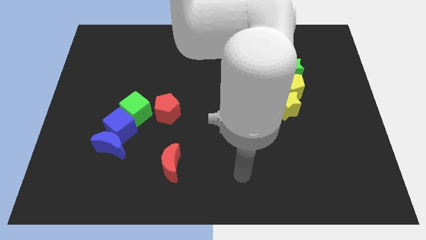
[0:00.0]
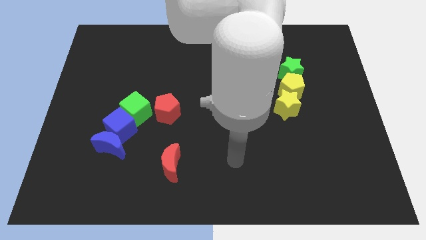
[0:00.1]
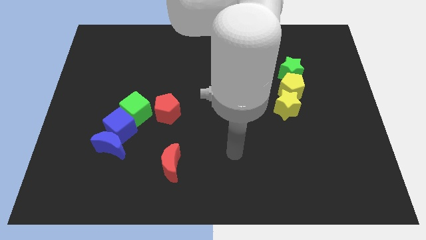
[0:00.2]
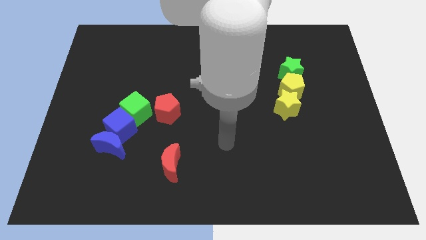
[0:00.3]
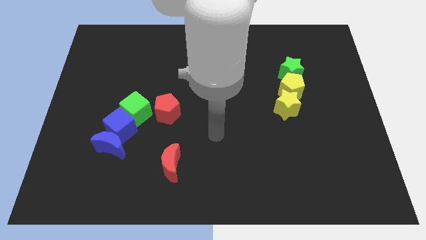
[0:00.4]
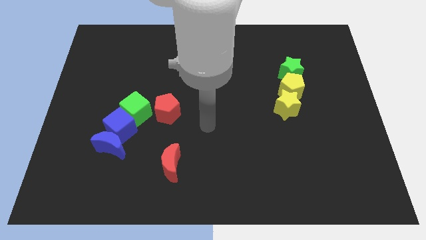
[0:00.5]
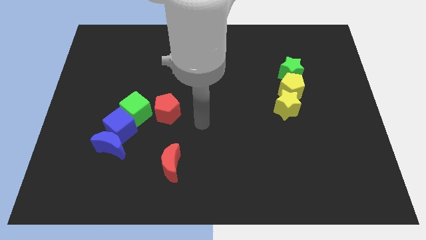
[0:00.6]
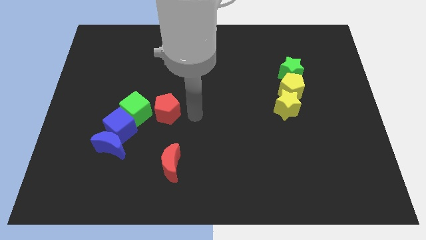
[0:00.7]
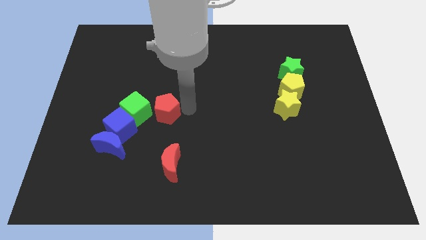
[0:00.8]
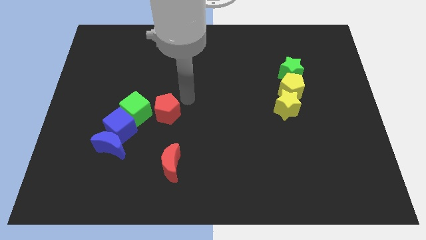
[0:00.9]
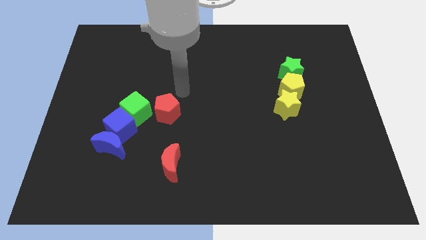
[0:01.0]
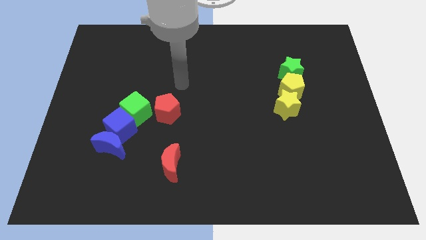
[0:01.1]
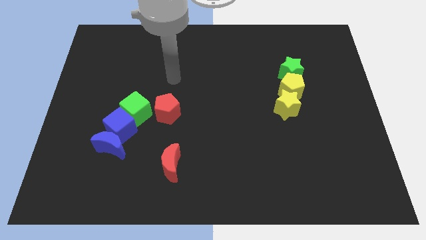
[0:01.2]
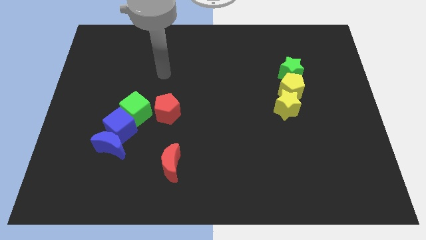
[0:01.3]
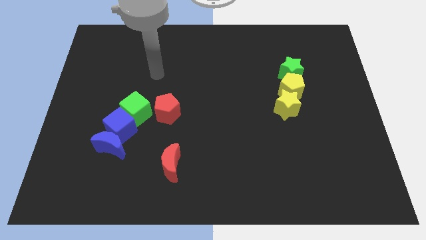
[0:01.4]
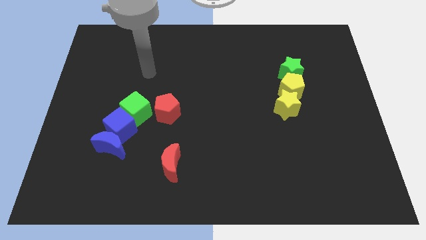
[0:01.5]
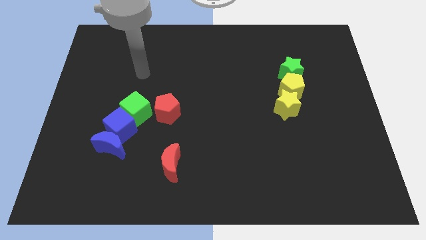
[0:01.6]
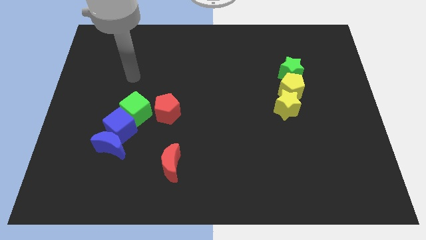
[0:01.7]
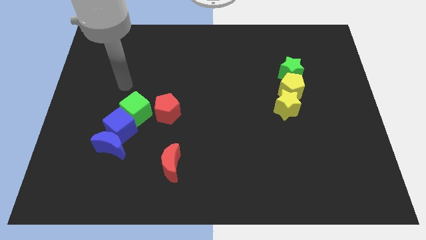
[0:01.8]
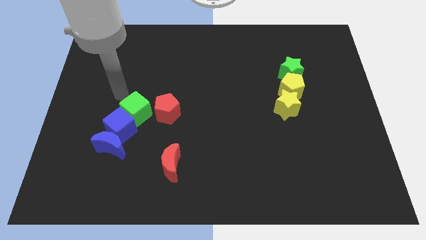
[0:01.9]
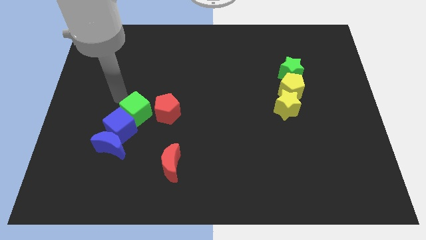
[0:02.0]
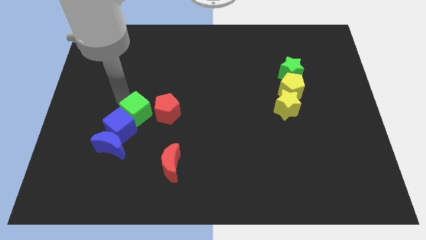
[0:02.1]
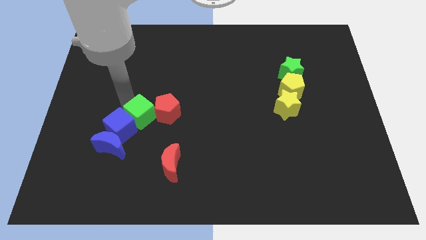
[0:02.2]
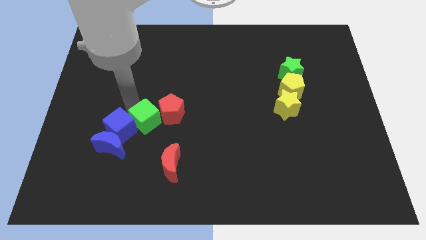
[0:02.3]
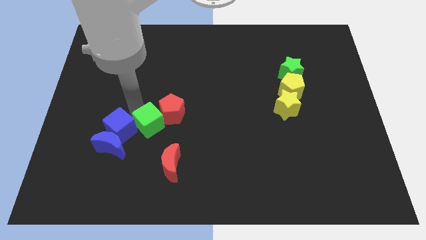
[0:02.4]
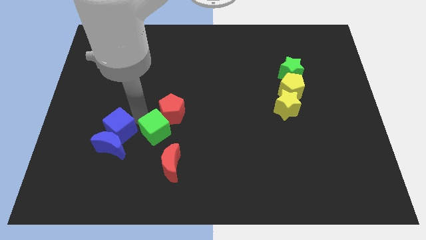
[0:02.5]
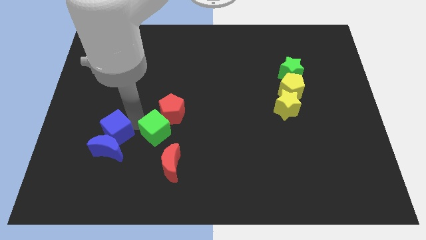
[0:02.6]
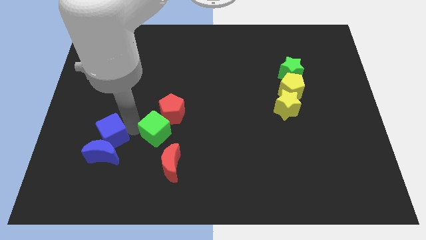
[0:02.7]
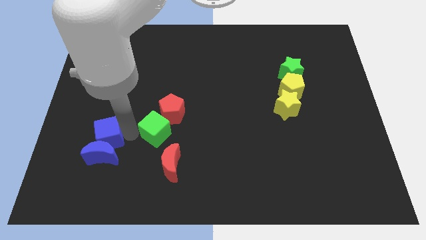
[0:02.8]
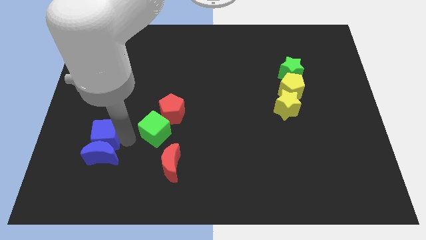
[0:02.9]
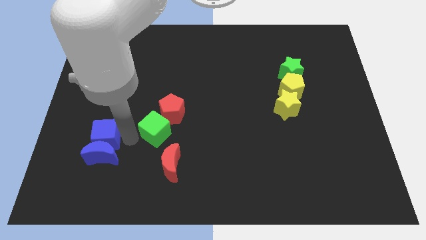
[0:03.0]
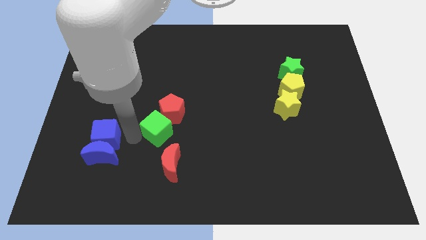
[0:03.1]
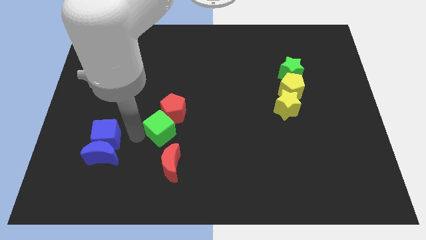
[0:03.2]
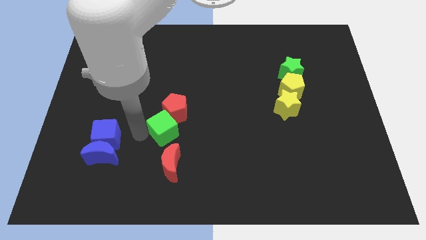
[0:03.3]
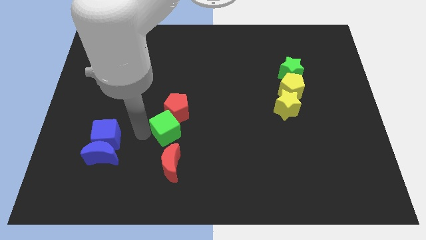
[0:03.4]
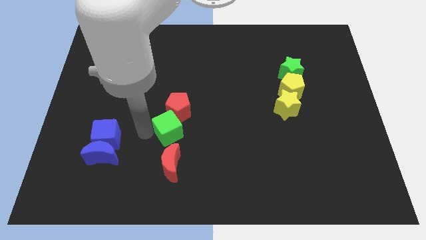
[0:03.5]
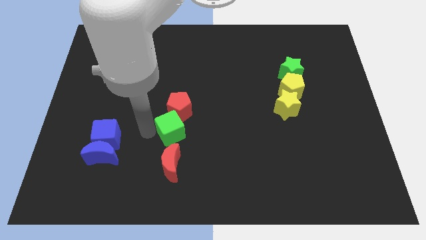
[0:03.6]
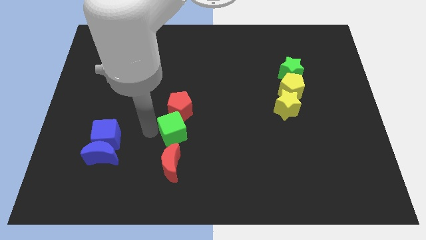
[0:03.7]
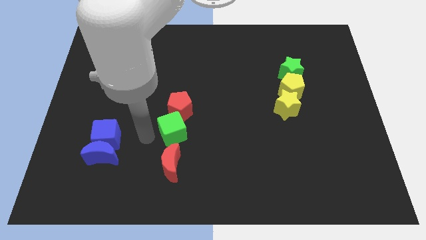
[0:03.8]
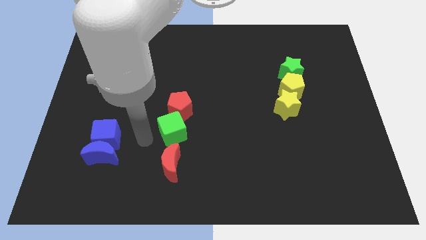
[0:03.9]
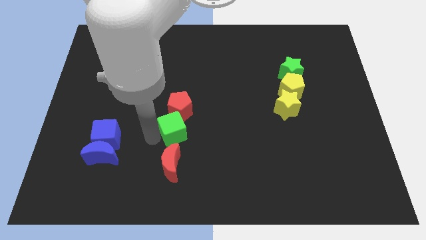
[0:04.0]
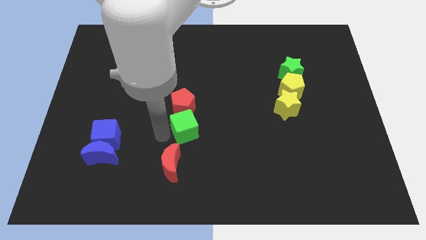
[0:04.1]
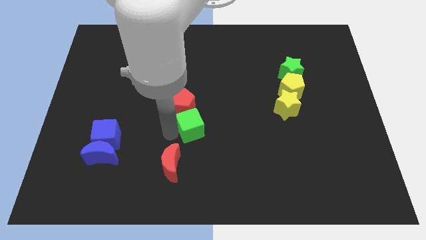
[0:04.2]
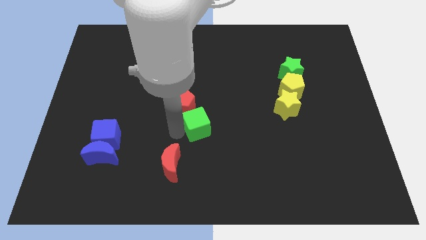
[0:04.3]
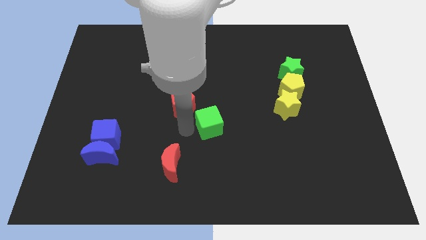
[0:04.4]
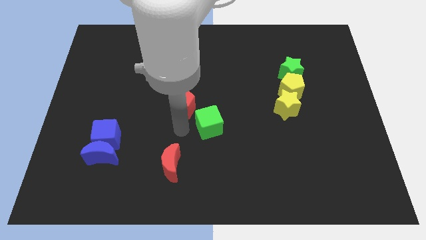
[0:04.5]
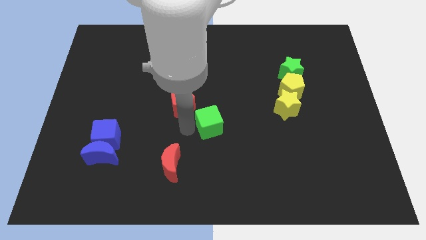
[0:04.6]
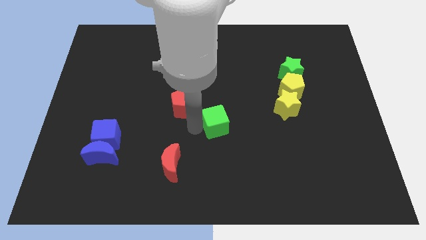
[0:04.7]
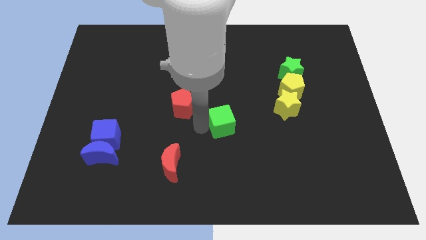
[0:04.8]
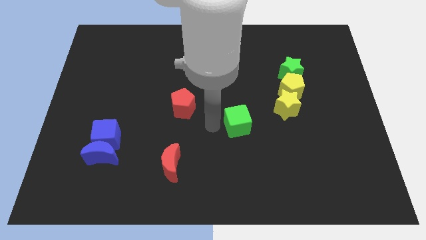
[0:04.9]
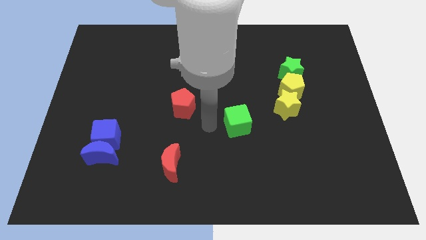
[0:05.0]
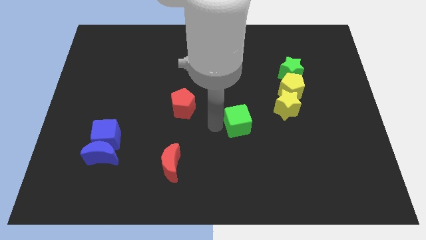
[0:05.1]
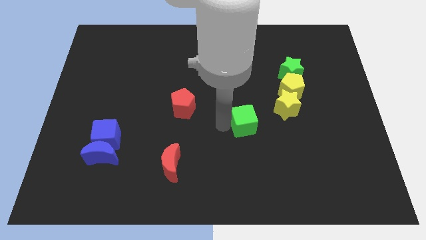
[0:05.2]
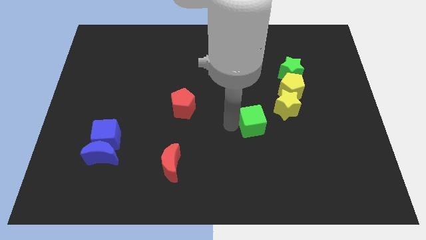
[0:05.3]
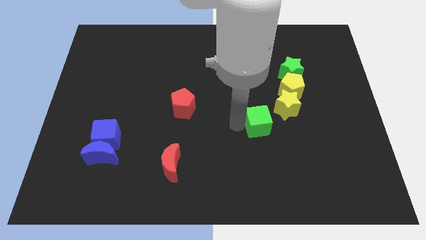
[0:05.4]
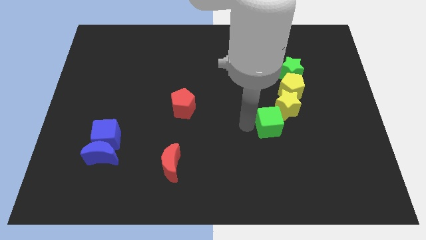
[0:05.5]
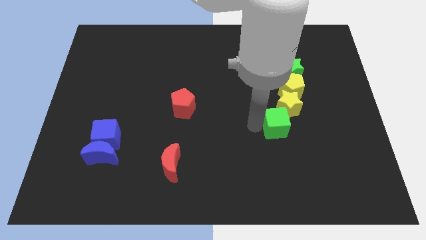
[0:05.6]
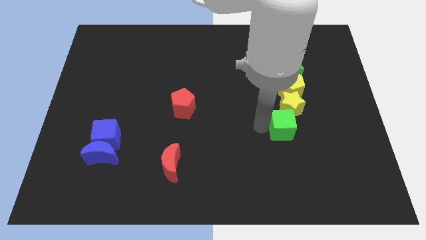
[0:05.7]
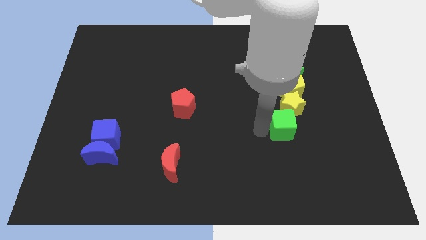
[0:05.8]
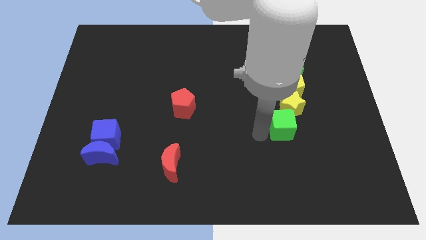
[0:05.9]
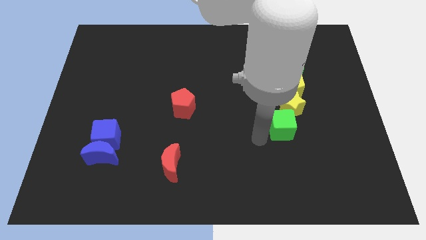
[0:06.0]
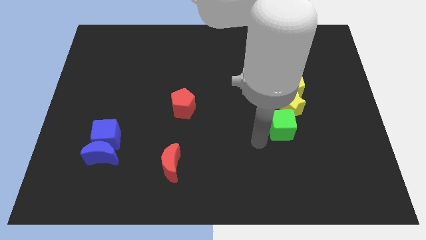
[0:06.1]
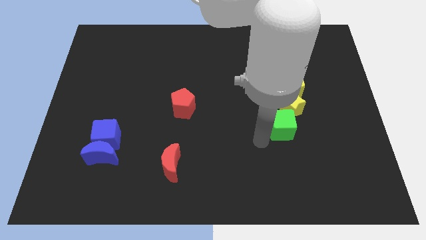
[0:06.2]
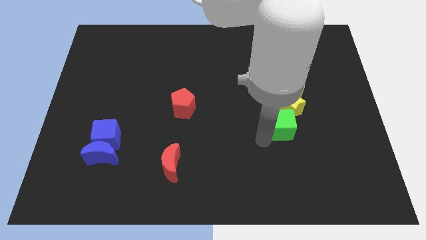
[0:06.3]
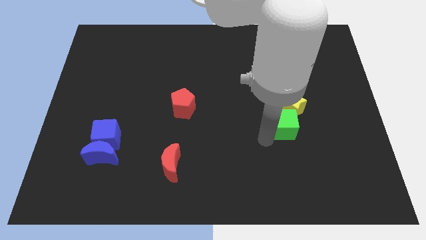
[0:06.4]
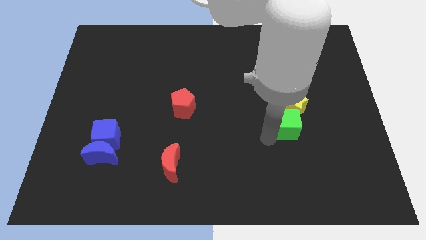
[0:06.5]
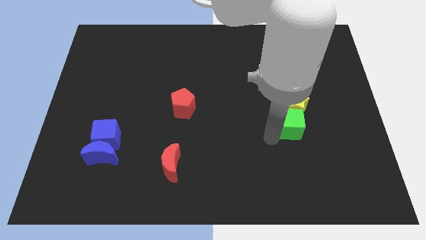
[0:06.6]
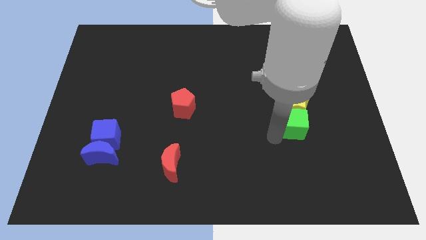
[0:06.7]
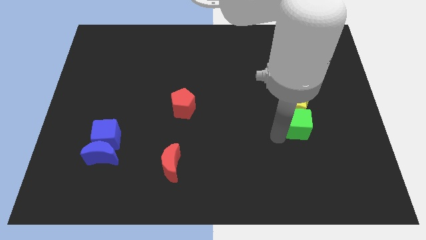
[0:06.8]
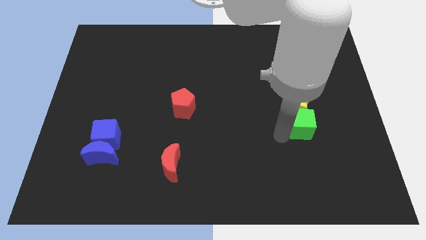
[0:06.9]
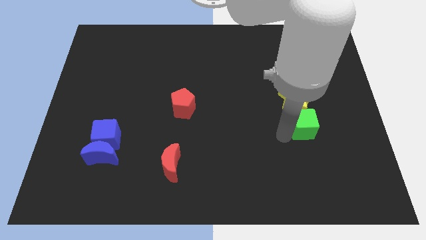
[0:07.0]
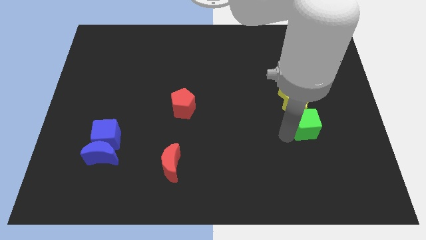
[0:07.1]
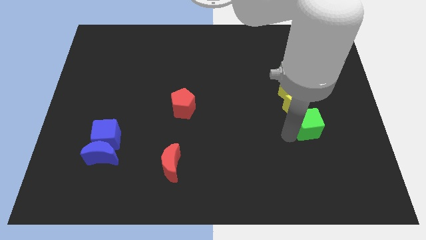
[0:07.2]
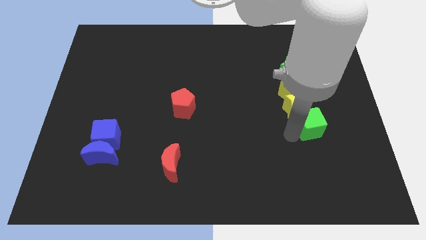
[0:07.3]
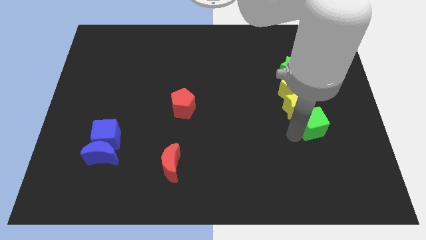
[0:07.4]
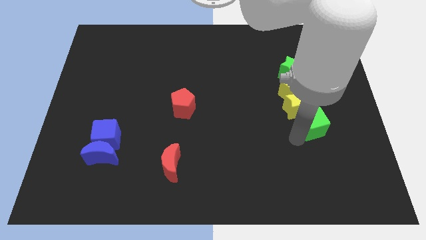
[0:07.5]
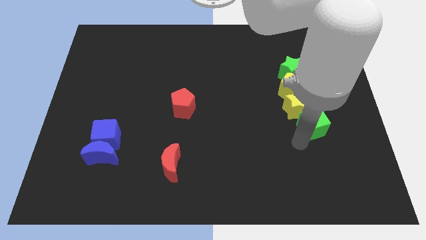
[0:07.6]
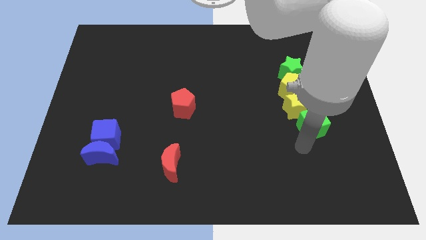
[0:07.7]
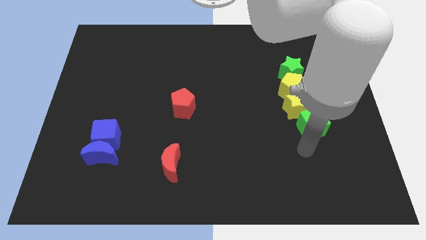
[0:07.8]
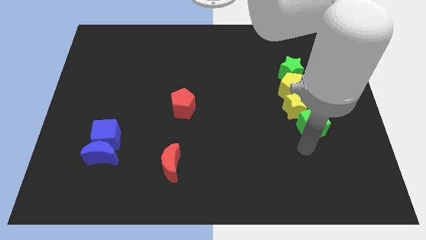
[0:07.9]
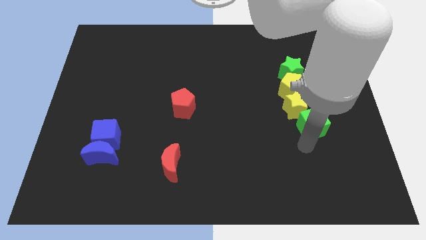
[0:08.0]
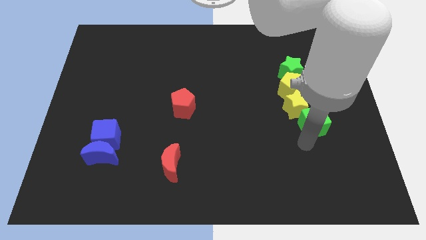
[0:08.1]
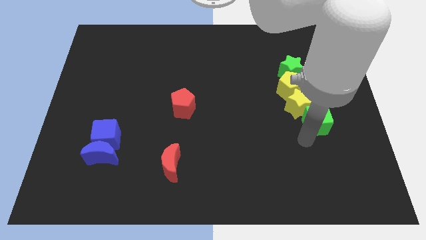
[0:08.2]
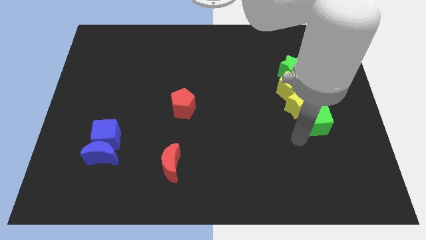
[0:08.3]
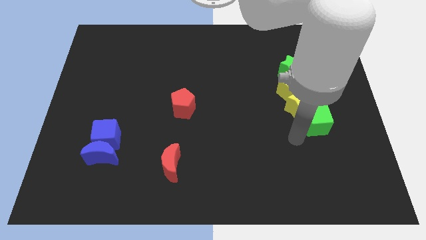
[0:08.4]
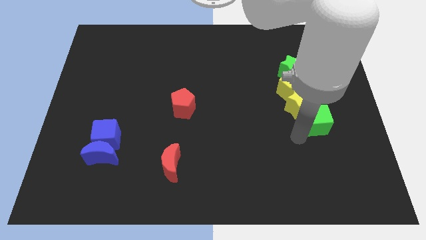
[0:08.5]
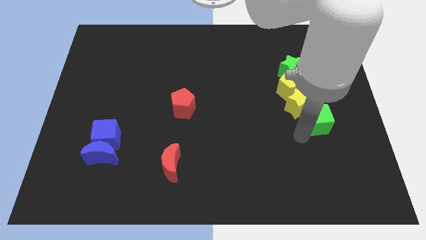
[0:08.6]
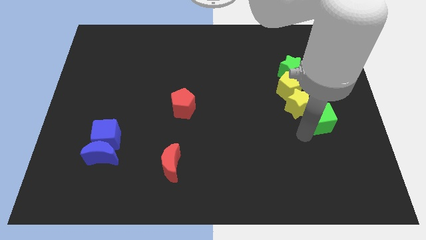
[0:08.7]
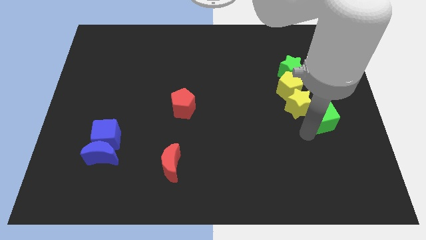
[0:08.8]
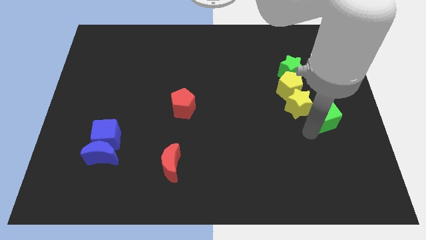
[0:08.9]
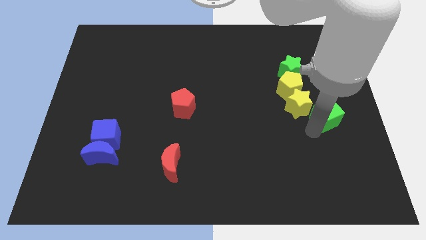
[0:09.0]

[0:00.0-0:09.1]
put the green cube to the center right
